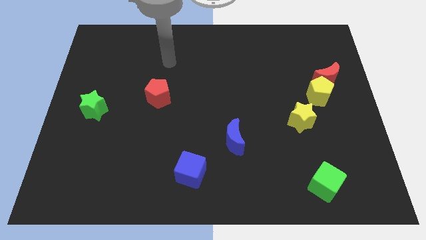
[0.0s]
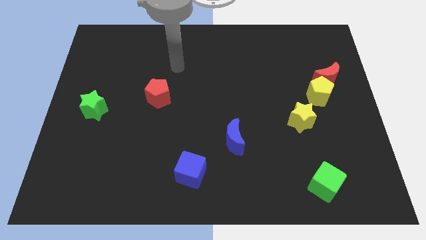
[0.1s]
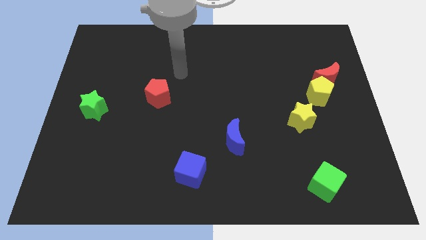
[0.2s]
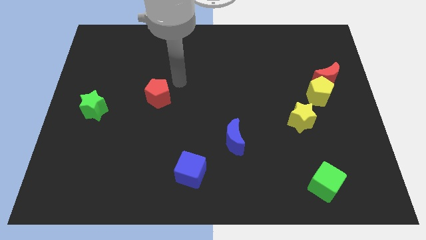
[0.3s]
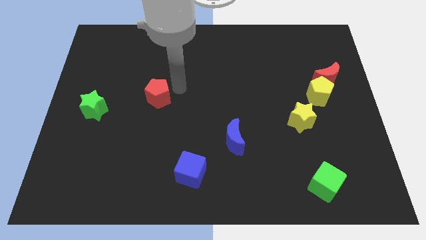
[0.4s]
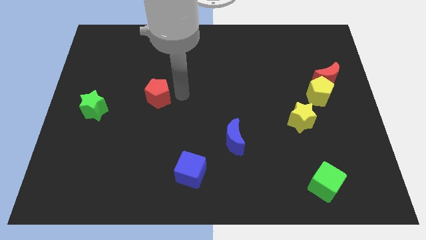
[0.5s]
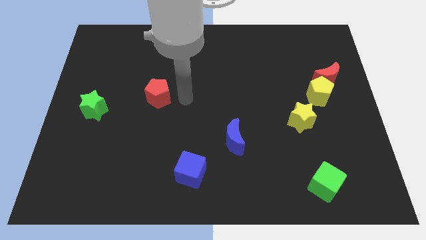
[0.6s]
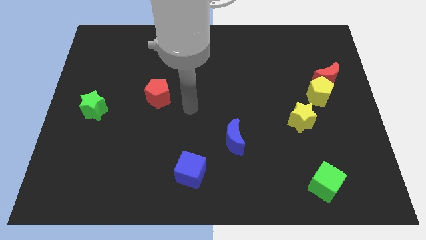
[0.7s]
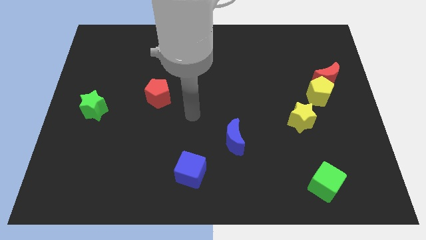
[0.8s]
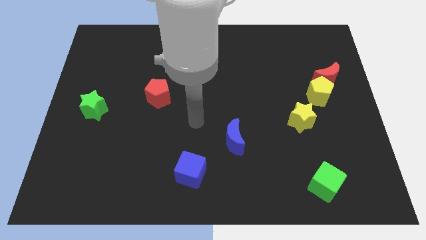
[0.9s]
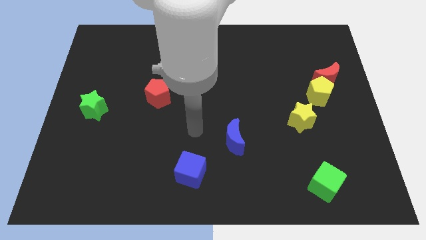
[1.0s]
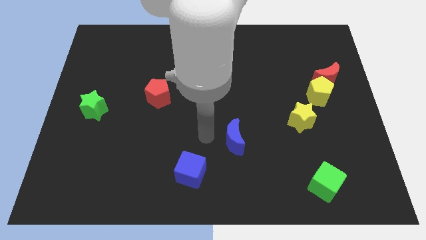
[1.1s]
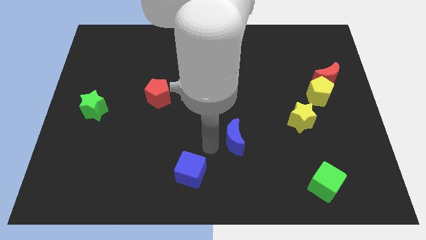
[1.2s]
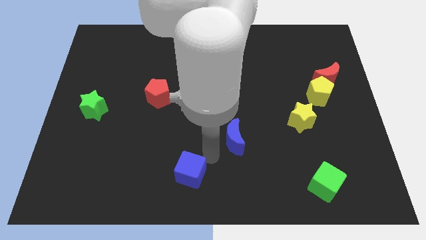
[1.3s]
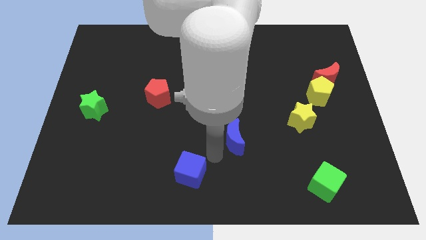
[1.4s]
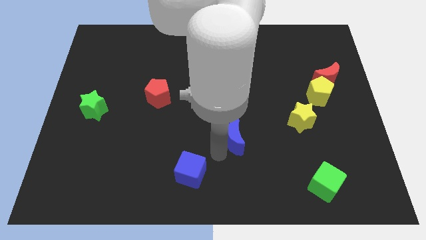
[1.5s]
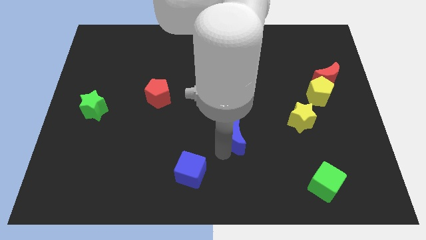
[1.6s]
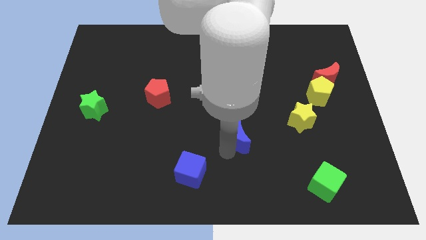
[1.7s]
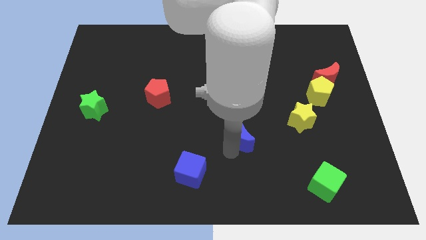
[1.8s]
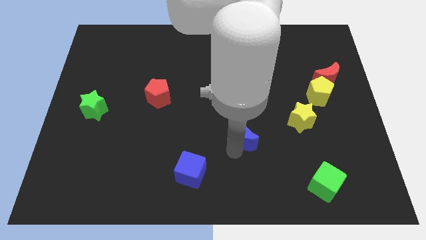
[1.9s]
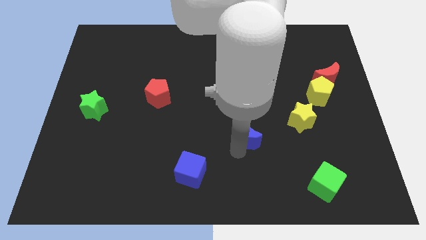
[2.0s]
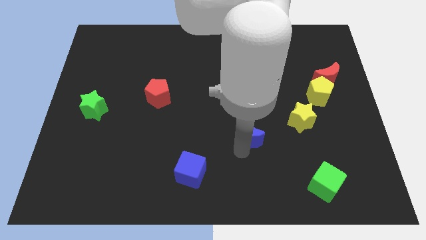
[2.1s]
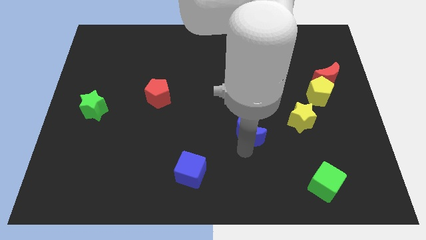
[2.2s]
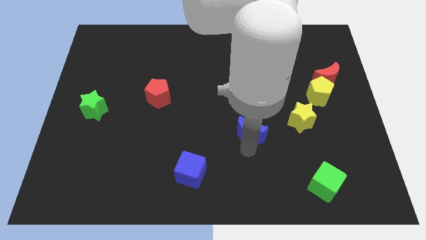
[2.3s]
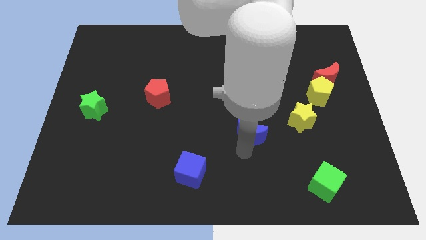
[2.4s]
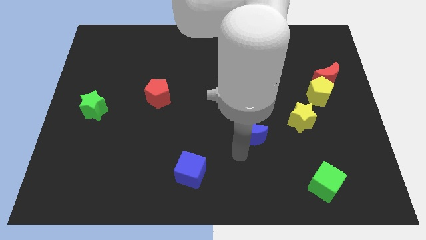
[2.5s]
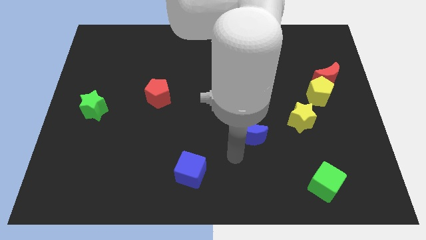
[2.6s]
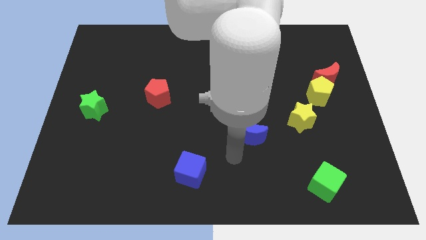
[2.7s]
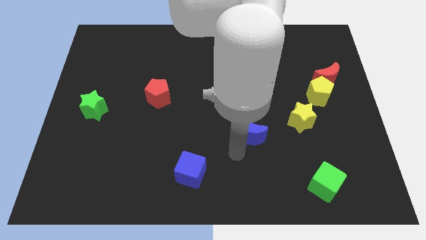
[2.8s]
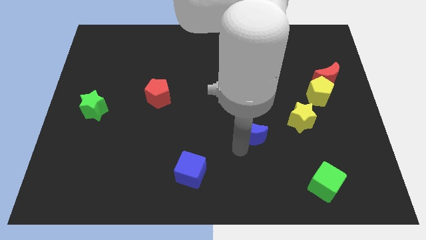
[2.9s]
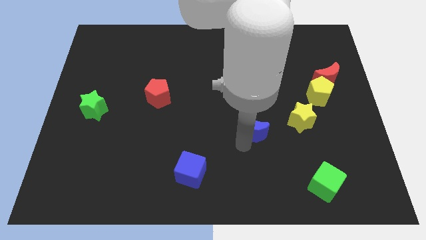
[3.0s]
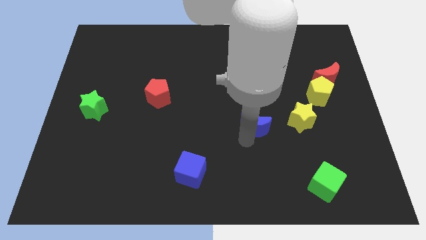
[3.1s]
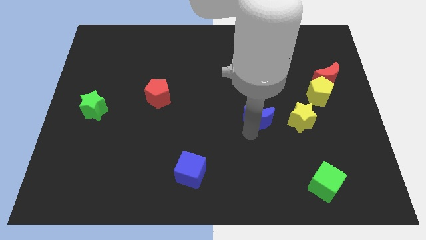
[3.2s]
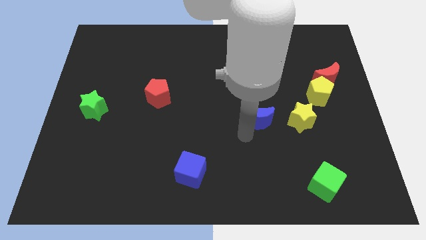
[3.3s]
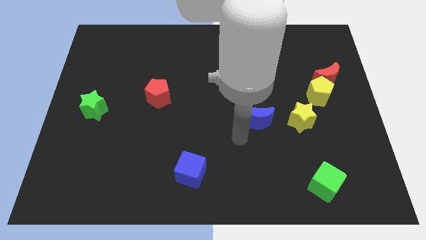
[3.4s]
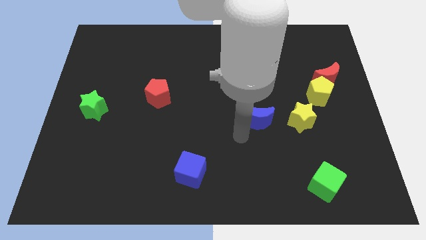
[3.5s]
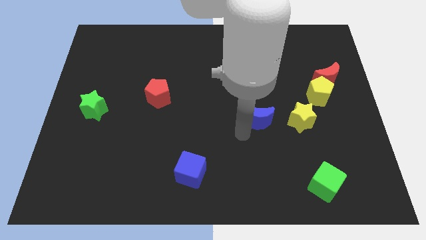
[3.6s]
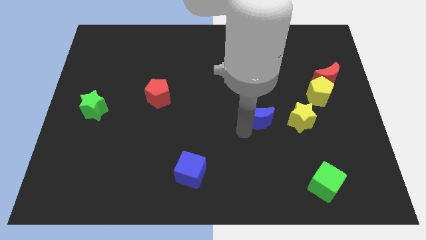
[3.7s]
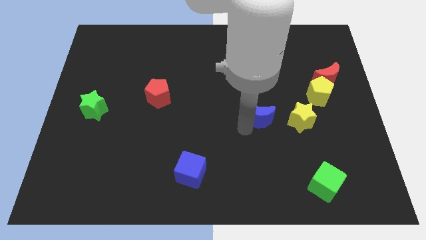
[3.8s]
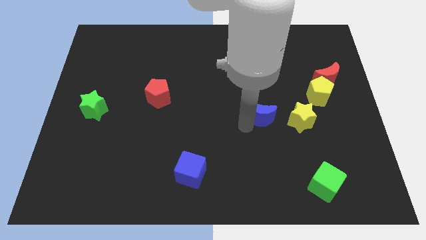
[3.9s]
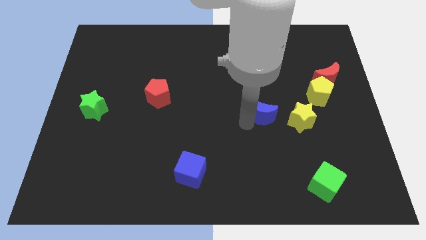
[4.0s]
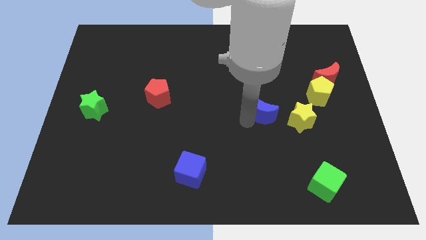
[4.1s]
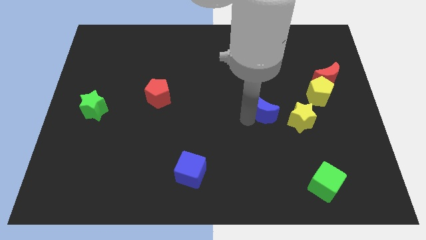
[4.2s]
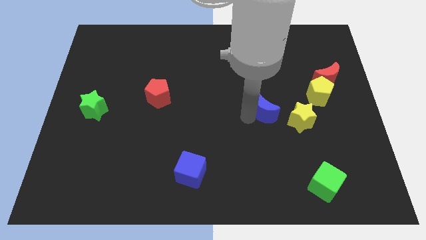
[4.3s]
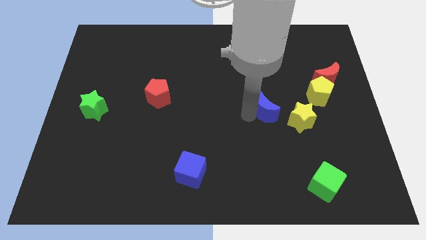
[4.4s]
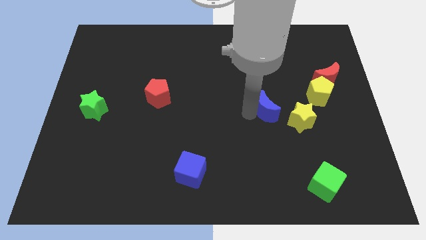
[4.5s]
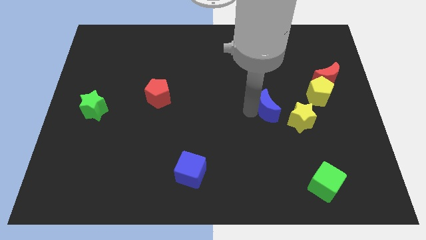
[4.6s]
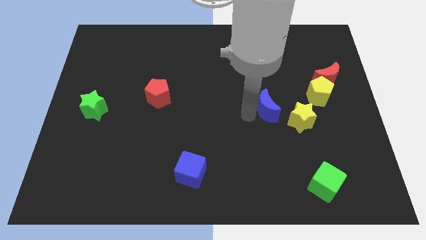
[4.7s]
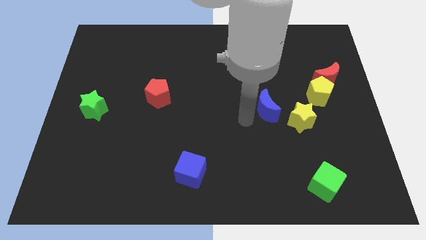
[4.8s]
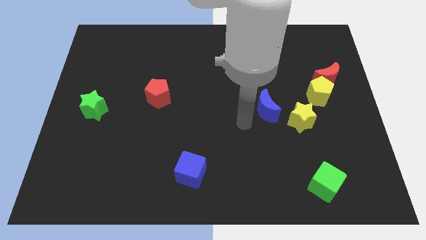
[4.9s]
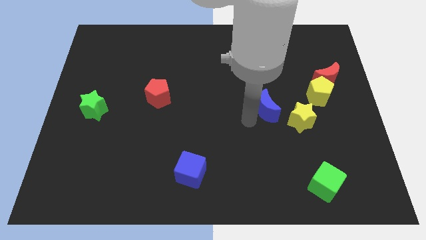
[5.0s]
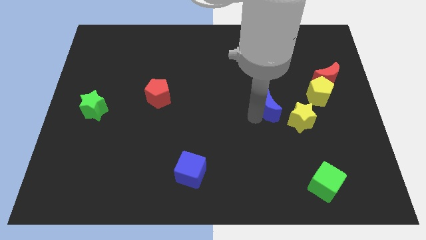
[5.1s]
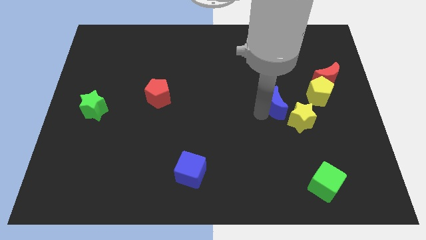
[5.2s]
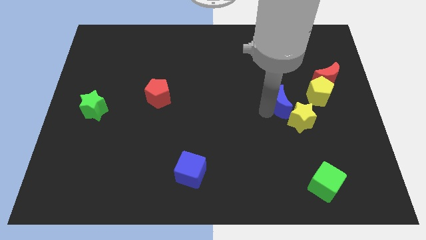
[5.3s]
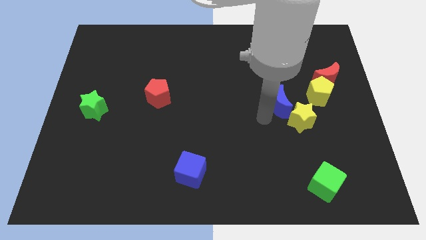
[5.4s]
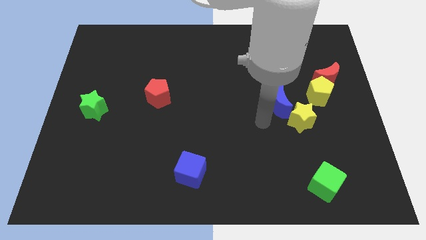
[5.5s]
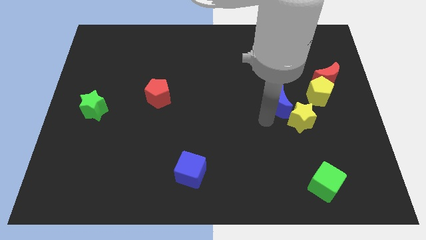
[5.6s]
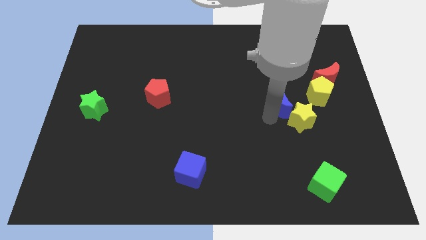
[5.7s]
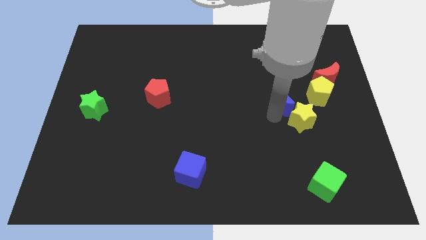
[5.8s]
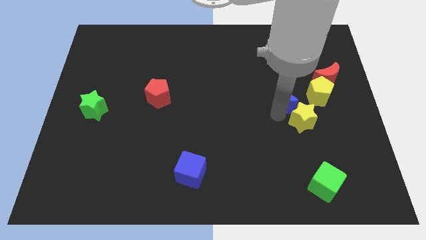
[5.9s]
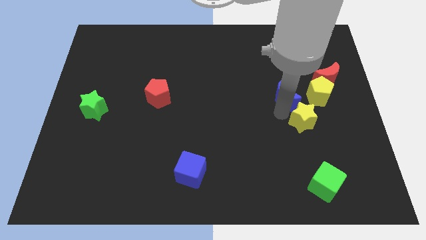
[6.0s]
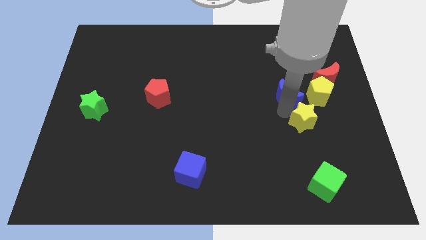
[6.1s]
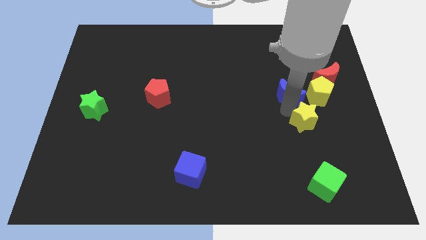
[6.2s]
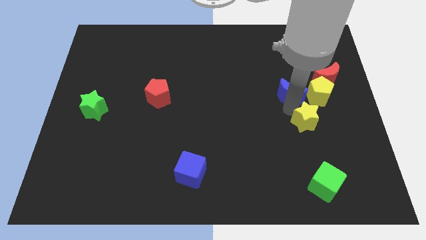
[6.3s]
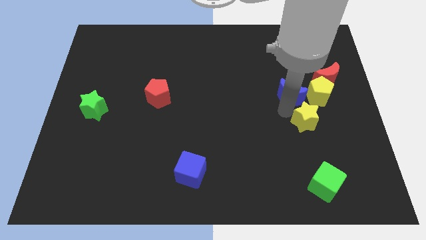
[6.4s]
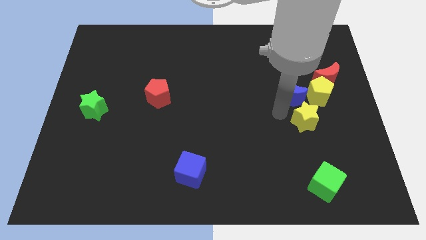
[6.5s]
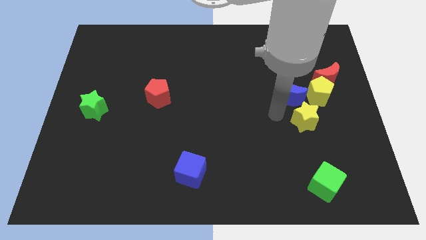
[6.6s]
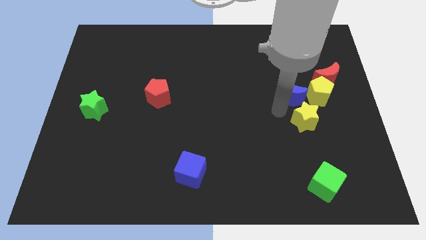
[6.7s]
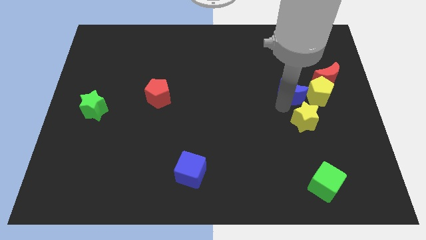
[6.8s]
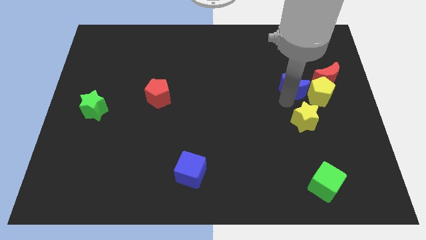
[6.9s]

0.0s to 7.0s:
push the blue moon up and then right

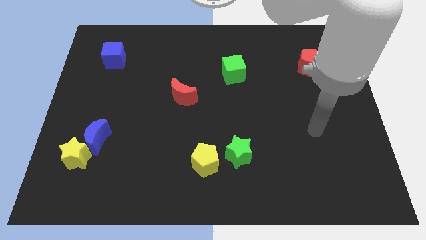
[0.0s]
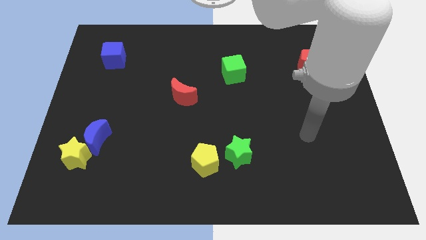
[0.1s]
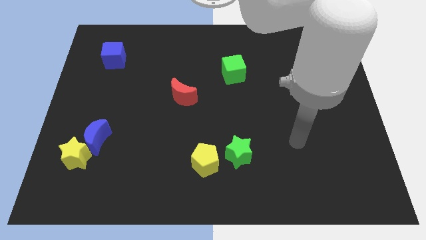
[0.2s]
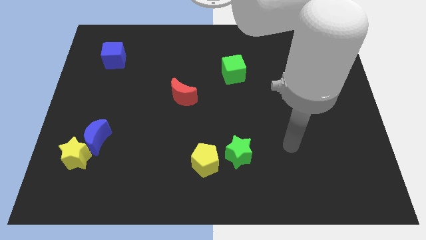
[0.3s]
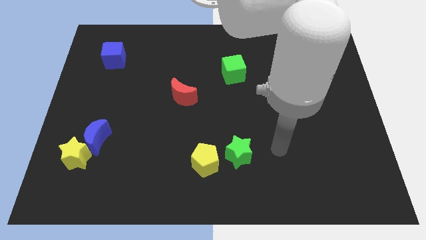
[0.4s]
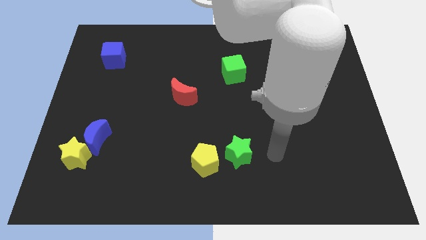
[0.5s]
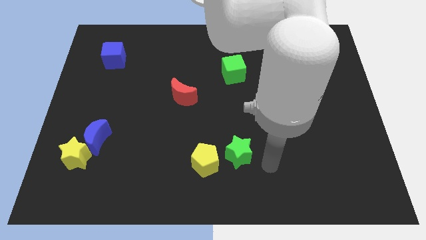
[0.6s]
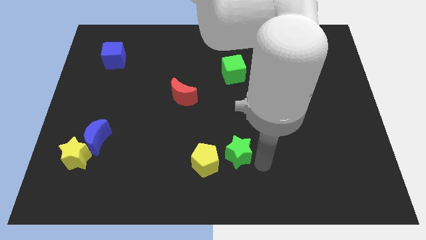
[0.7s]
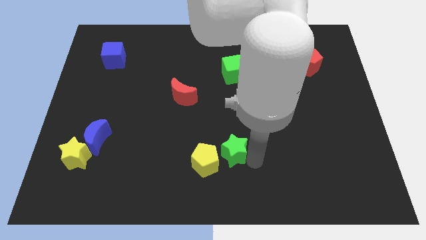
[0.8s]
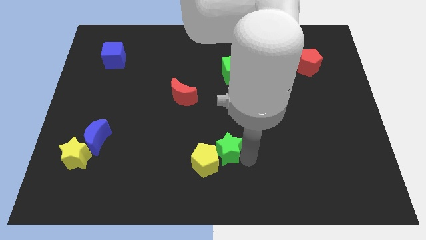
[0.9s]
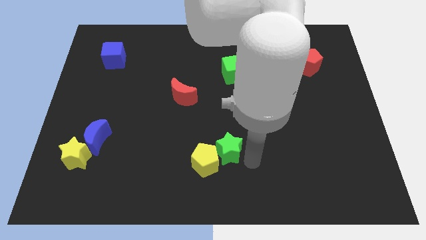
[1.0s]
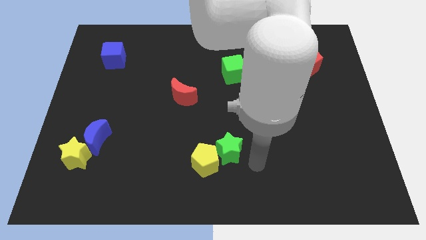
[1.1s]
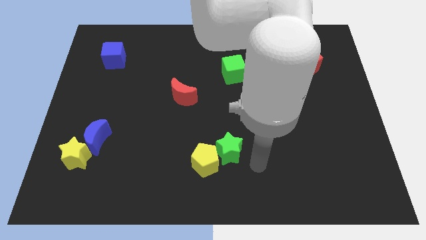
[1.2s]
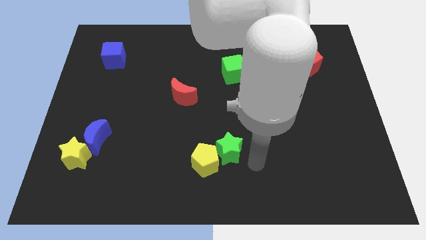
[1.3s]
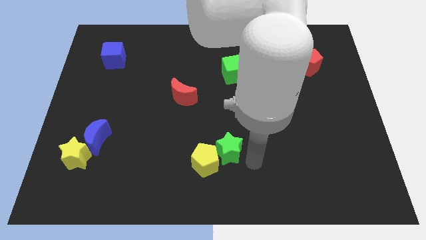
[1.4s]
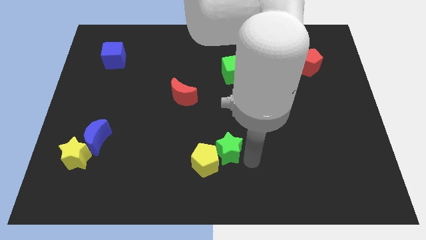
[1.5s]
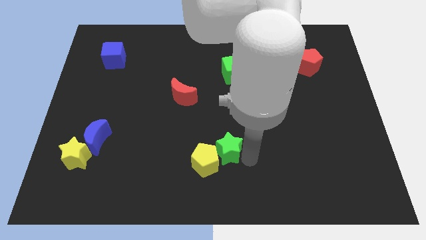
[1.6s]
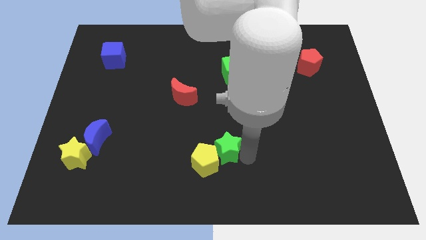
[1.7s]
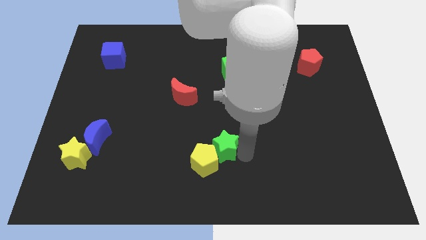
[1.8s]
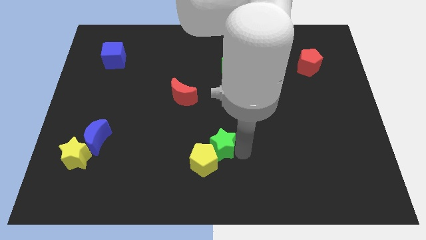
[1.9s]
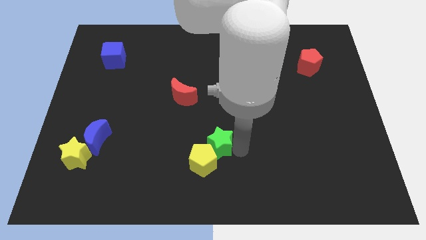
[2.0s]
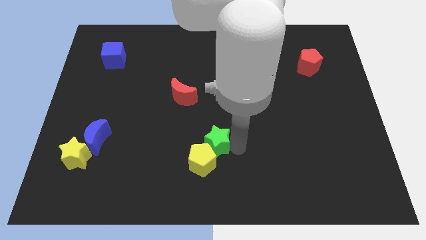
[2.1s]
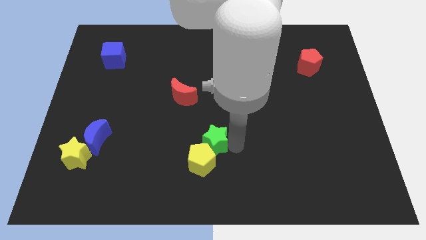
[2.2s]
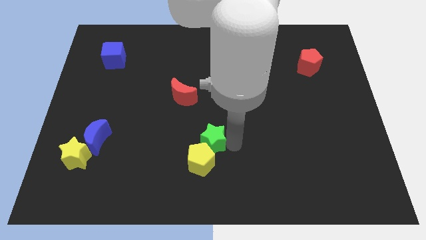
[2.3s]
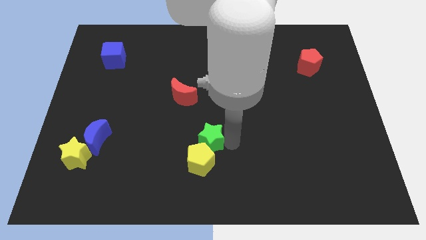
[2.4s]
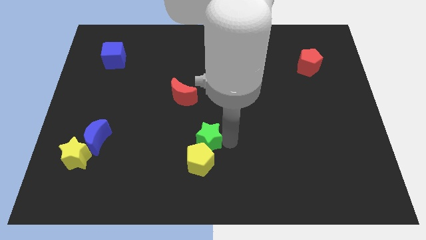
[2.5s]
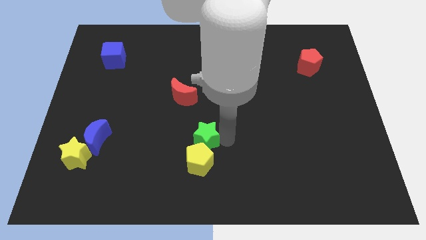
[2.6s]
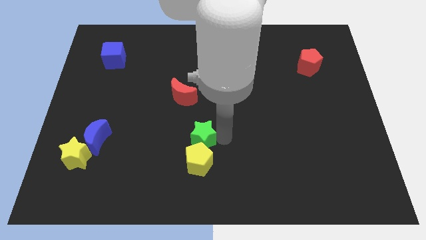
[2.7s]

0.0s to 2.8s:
slide the green star left somewhat
